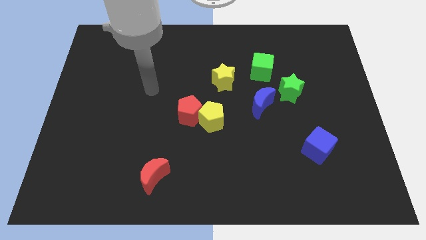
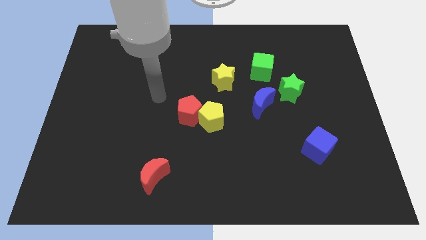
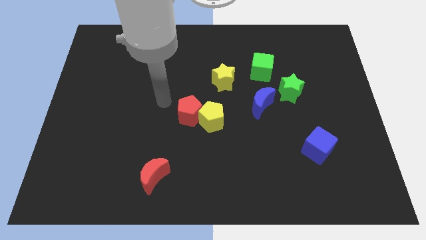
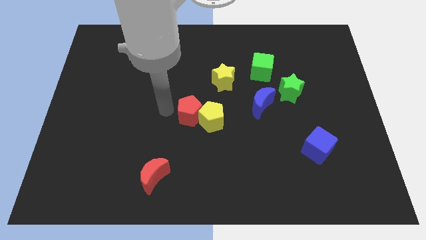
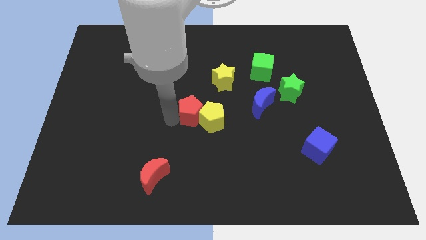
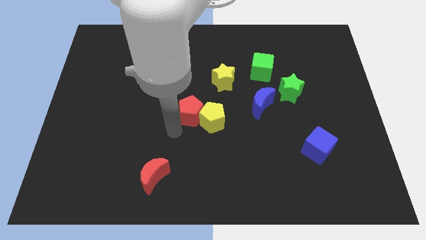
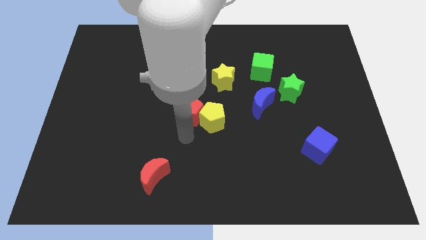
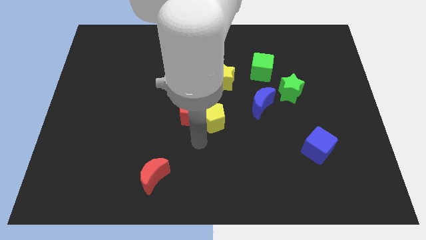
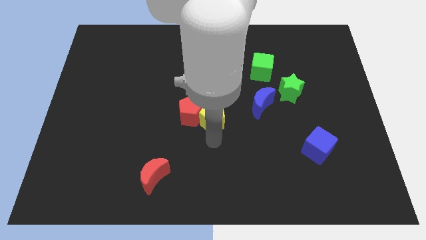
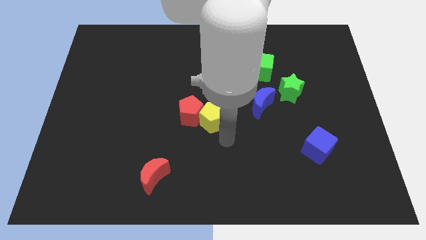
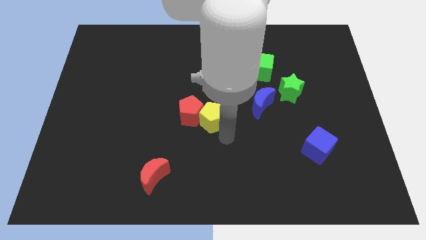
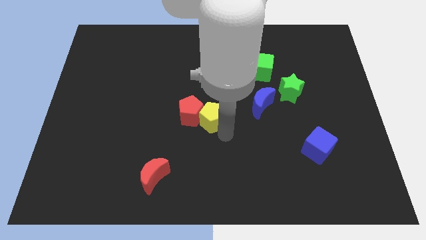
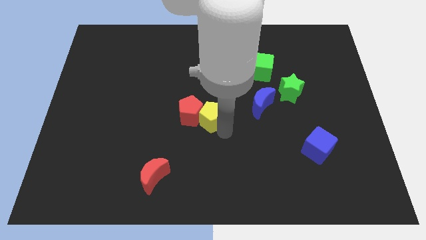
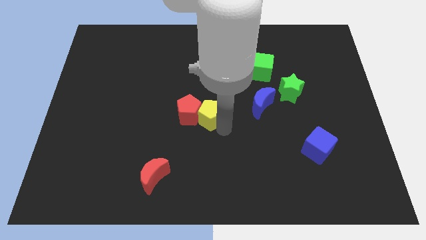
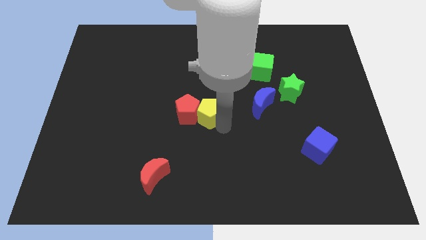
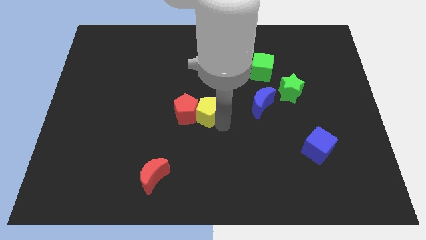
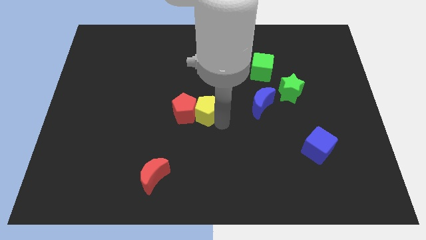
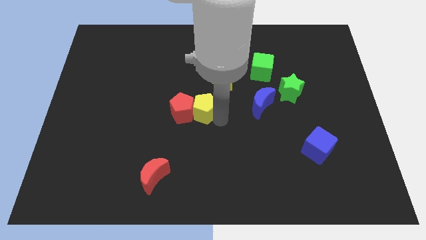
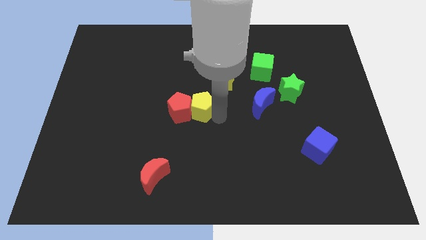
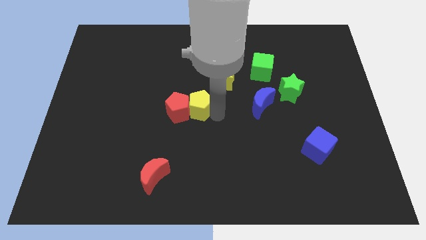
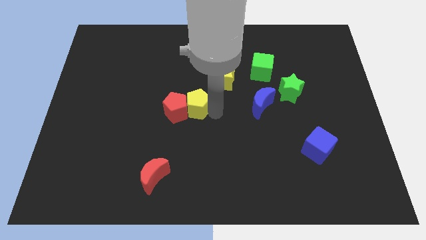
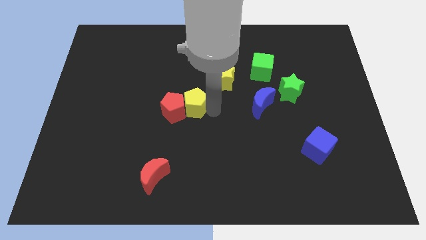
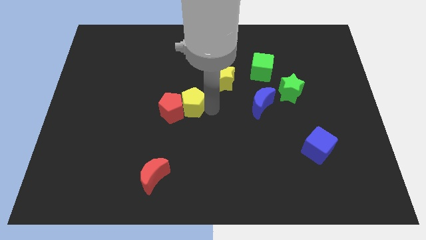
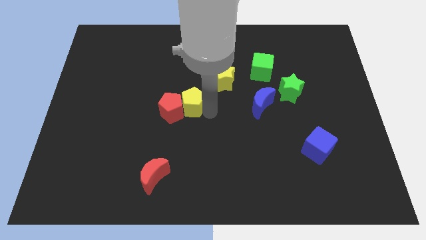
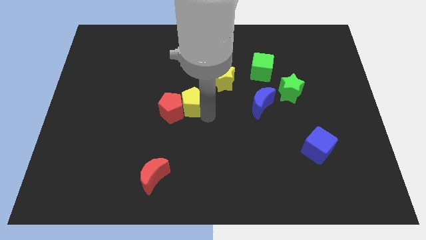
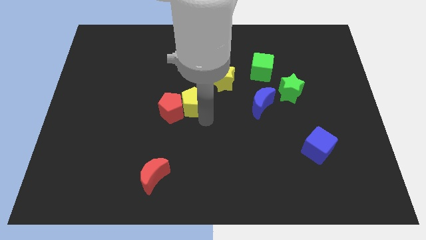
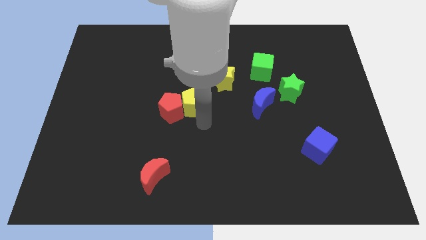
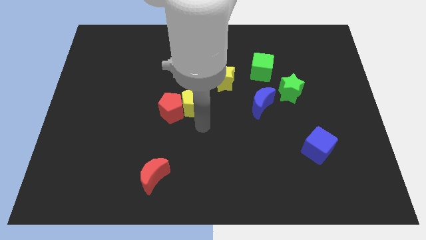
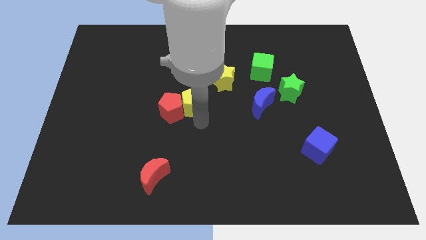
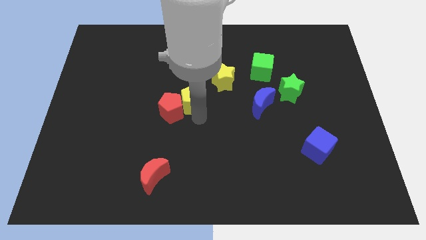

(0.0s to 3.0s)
slightly push the yellow pentagon up and to the left

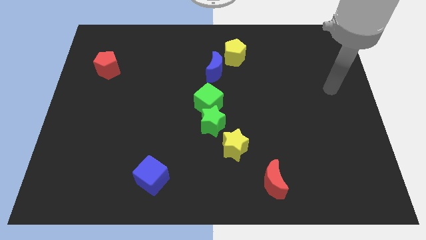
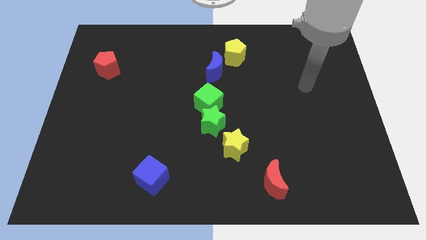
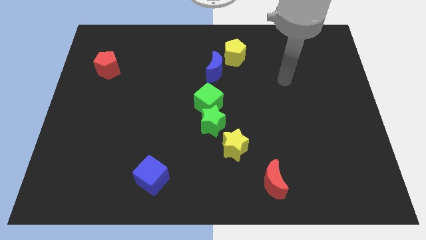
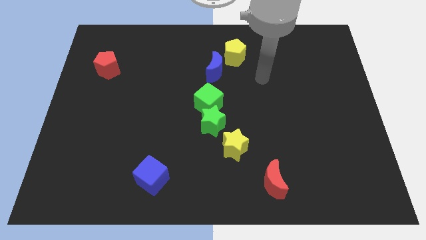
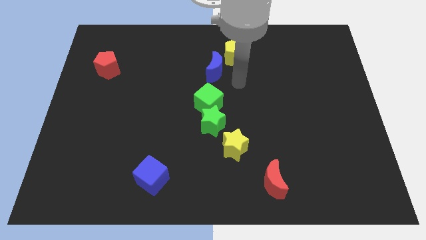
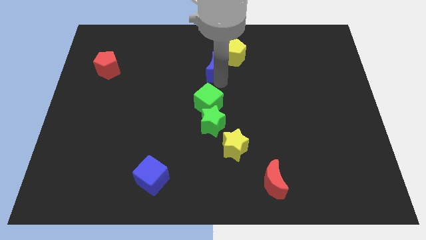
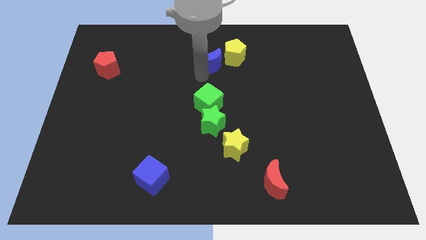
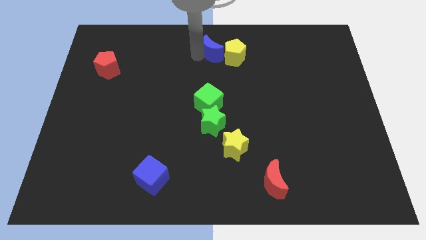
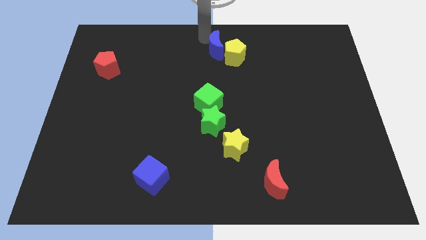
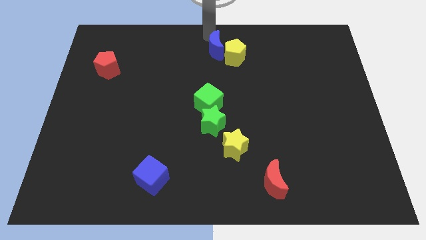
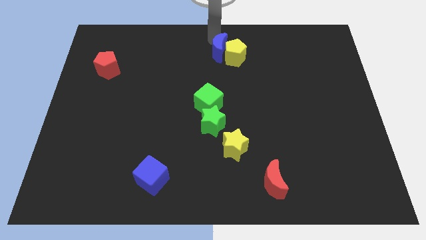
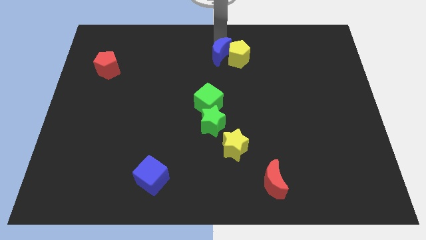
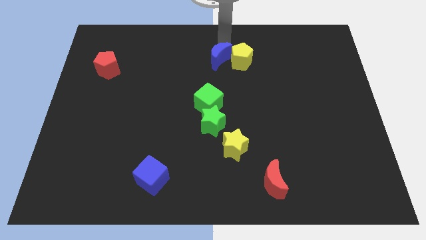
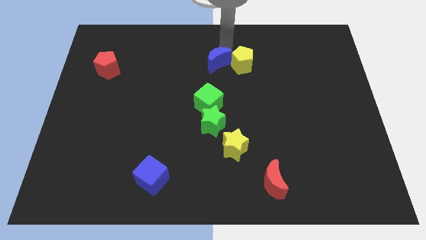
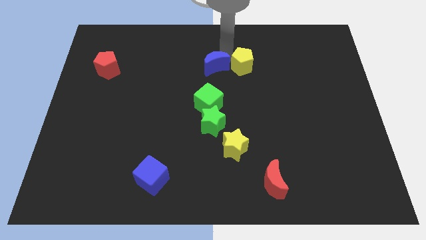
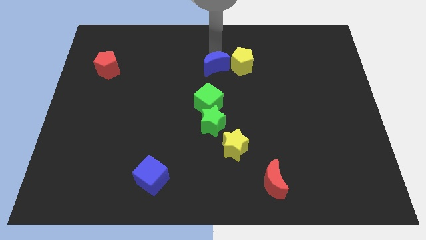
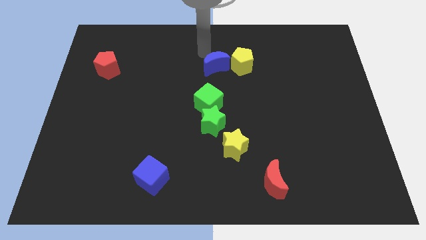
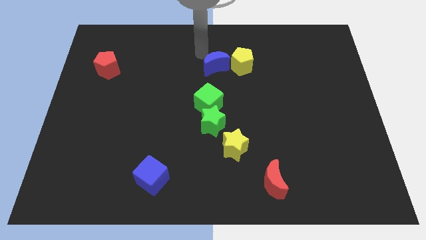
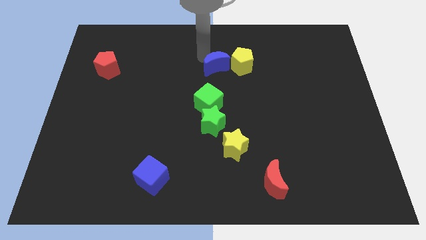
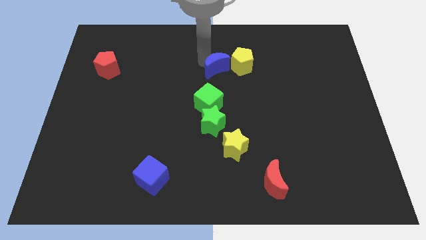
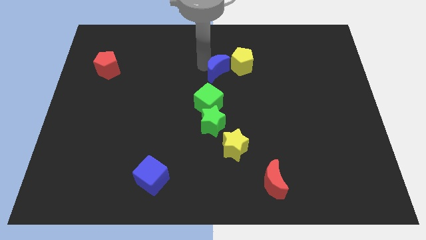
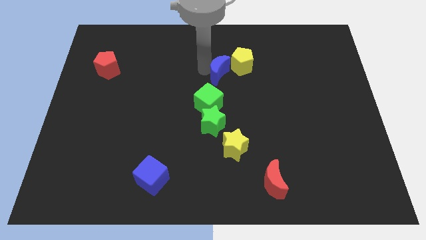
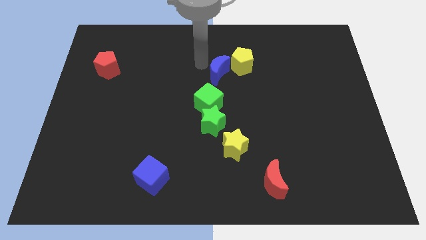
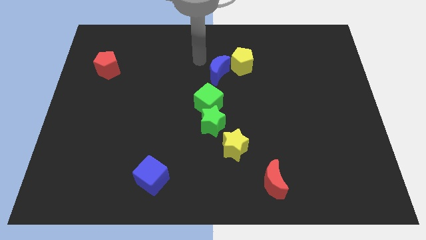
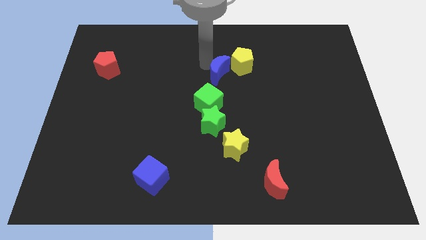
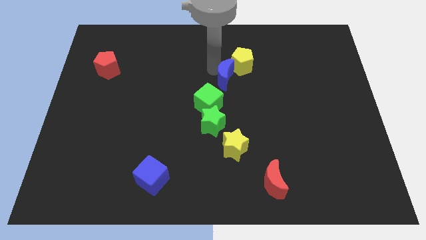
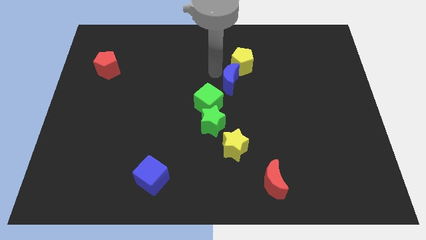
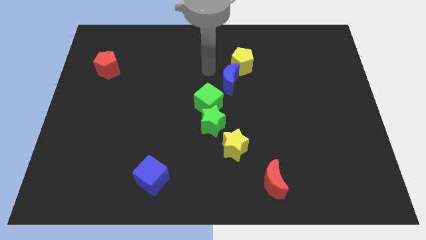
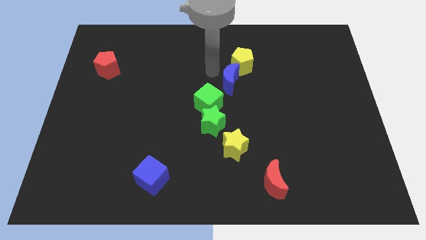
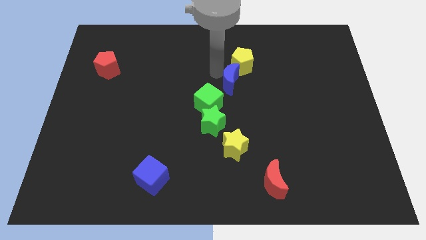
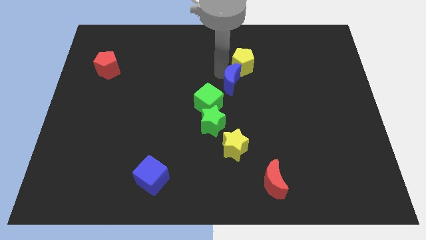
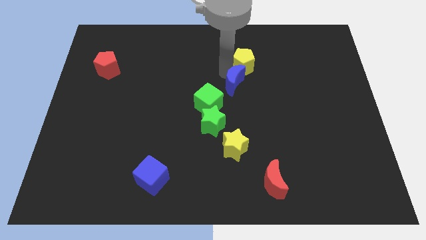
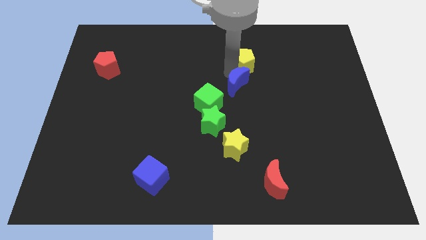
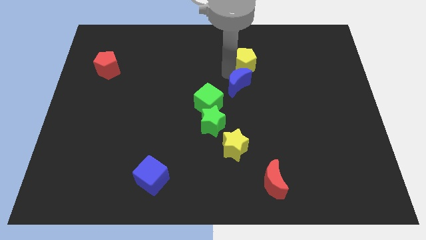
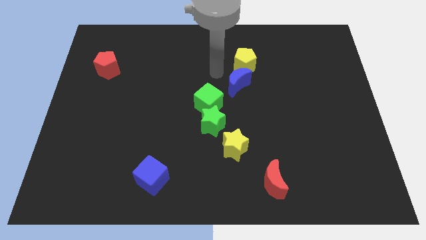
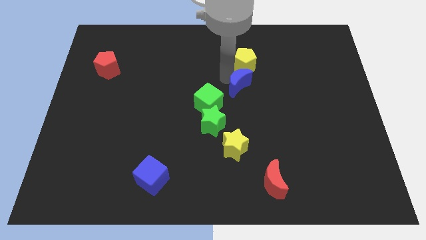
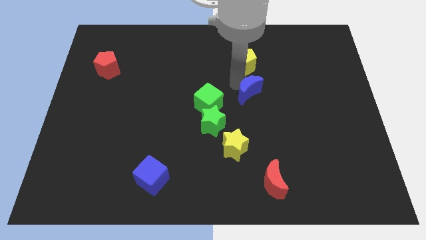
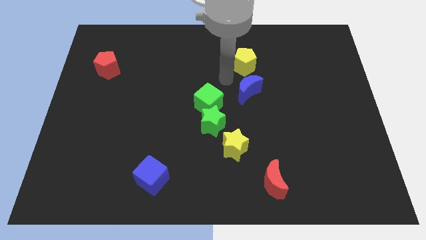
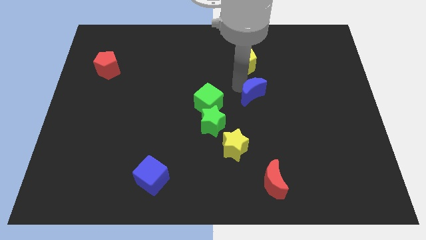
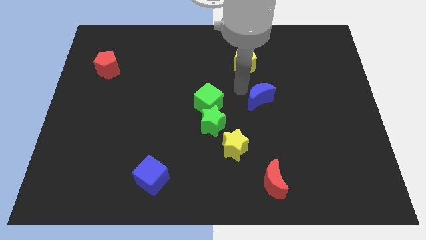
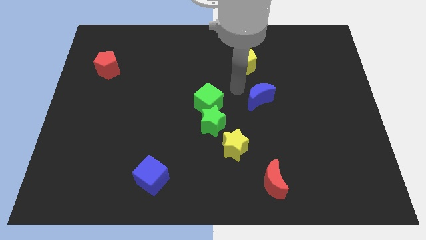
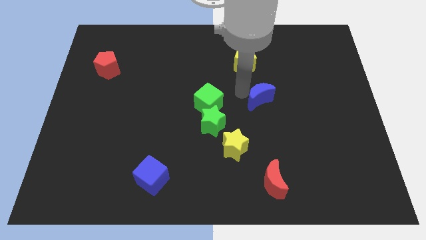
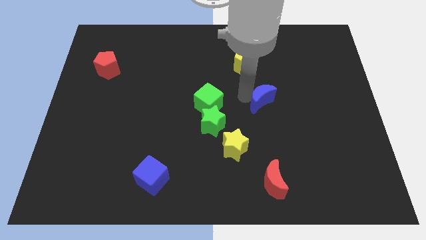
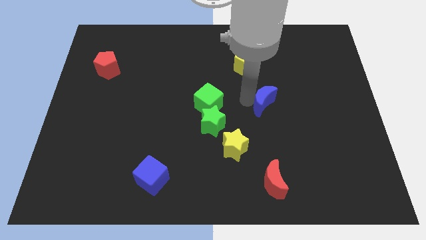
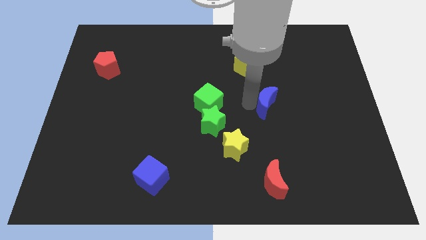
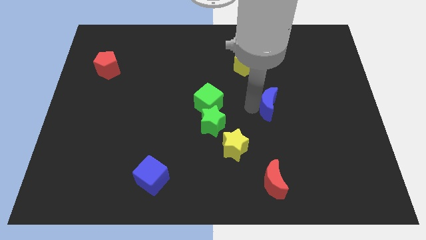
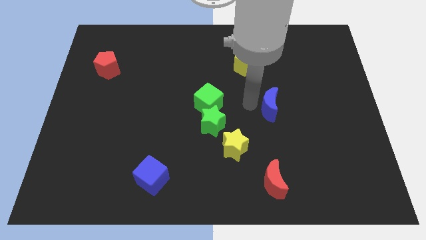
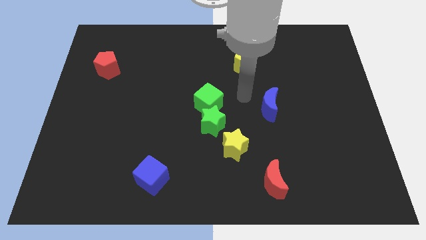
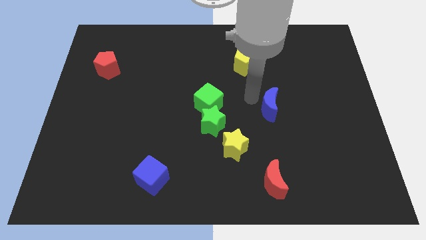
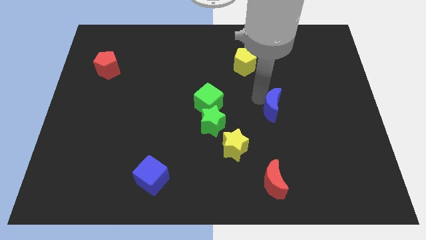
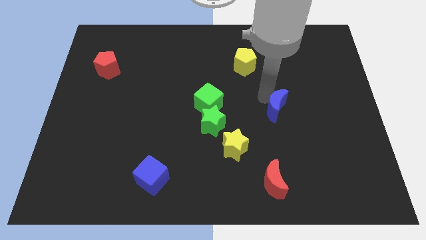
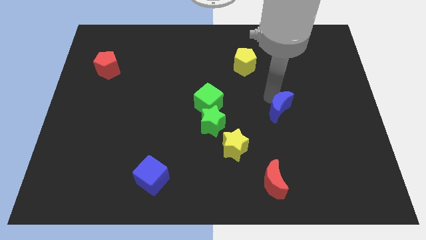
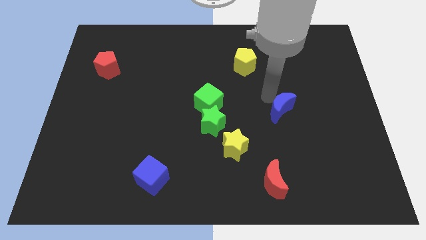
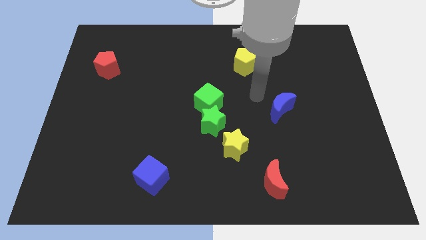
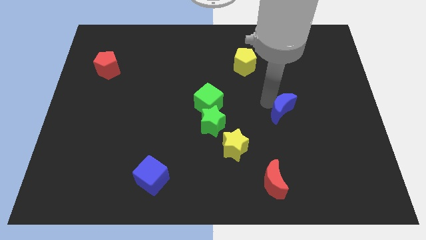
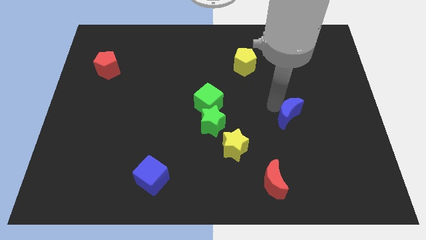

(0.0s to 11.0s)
push the blue moon downwards and to the right diagonally
